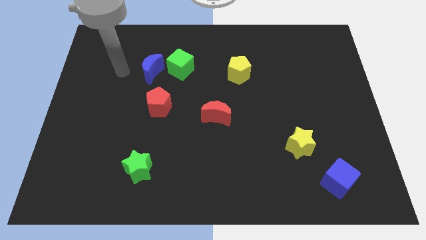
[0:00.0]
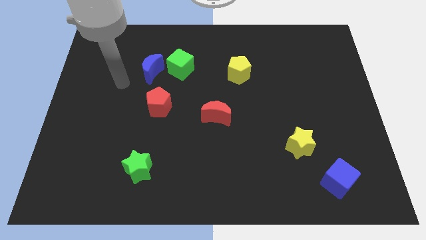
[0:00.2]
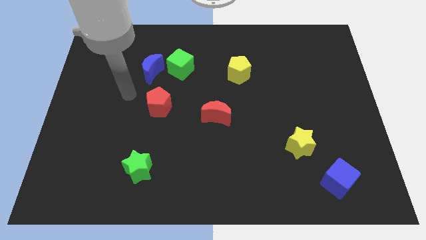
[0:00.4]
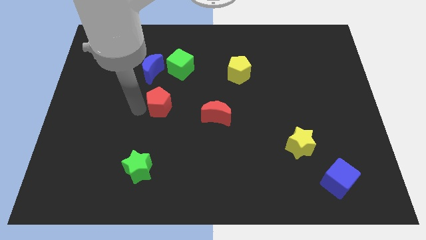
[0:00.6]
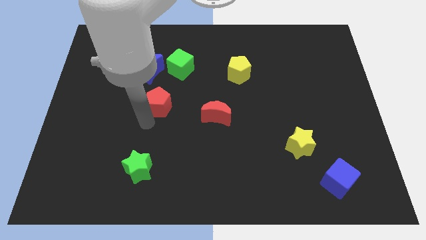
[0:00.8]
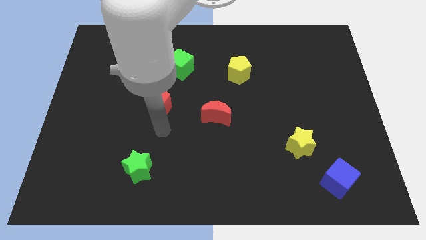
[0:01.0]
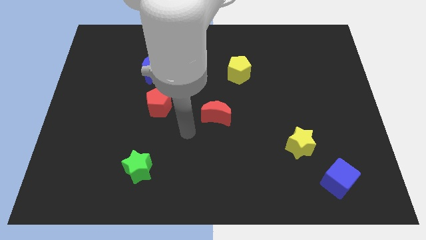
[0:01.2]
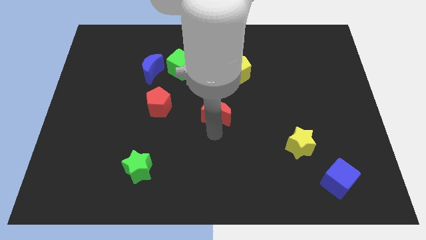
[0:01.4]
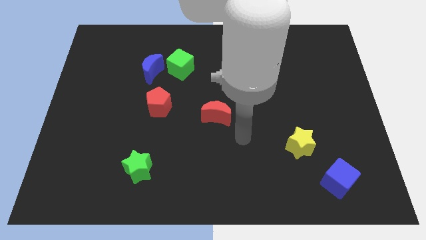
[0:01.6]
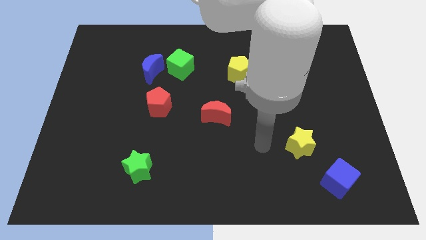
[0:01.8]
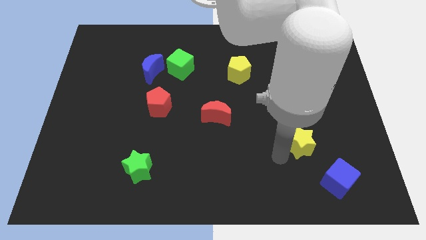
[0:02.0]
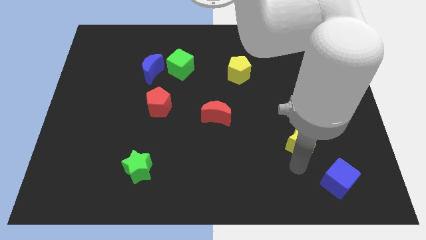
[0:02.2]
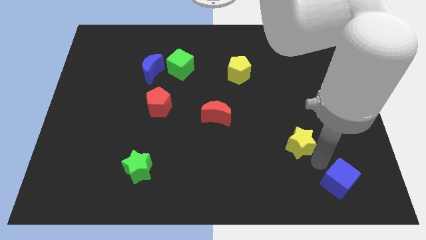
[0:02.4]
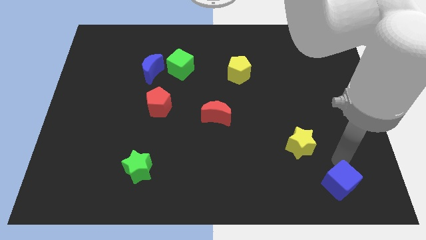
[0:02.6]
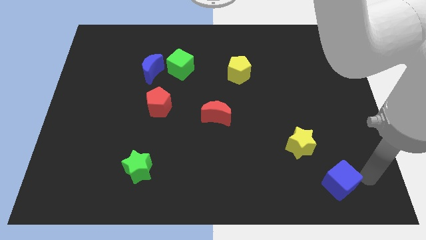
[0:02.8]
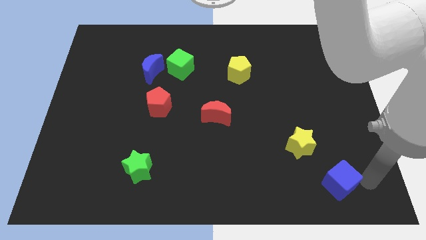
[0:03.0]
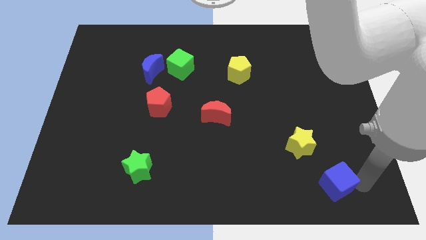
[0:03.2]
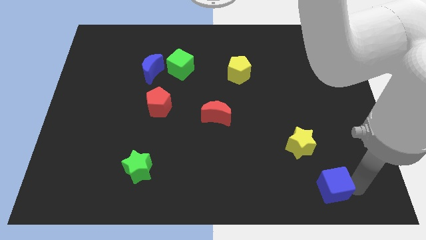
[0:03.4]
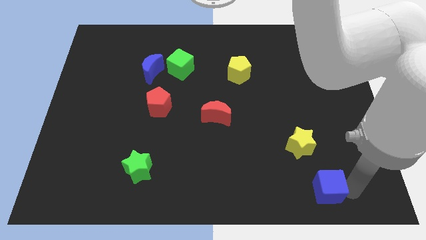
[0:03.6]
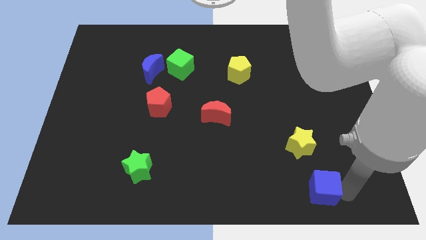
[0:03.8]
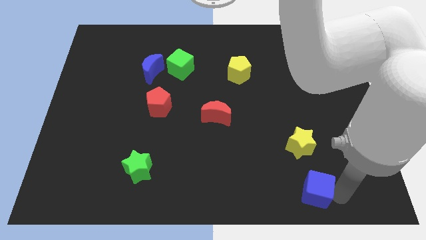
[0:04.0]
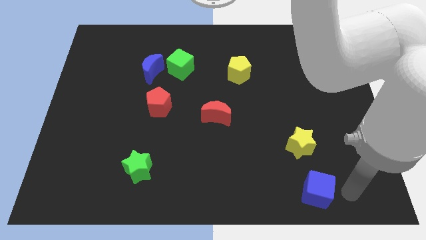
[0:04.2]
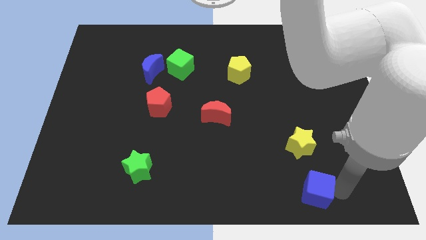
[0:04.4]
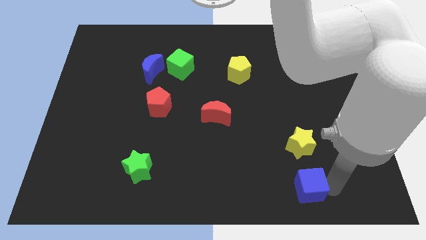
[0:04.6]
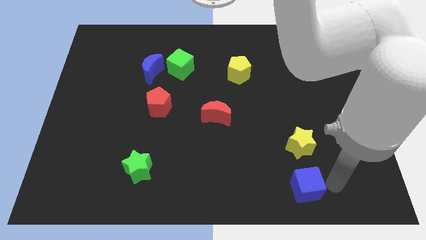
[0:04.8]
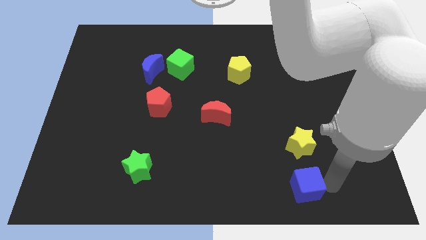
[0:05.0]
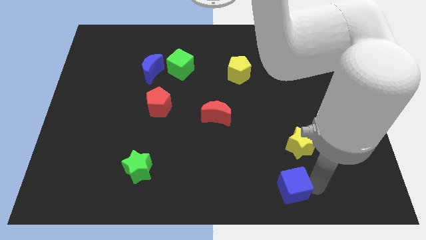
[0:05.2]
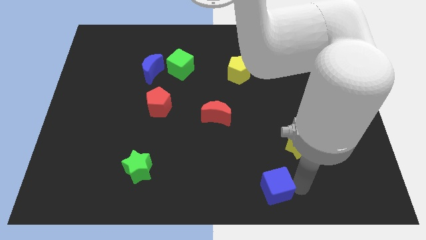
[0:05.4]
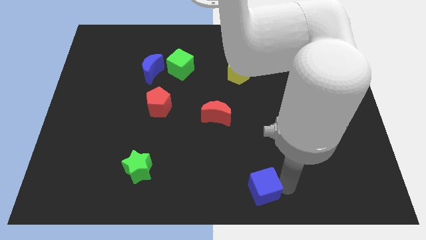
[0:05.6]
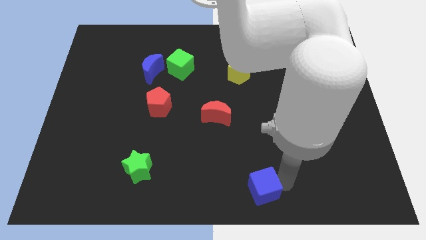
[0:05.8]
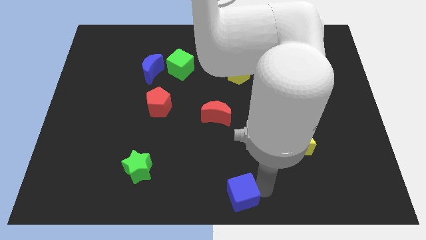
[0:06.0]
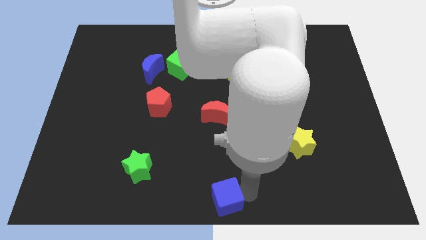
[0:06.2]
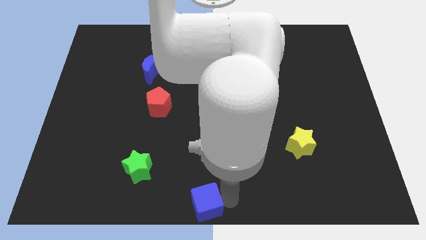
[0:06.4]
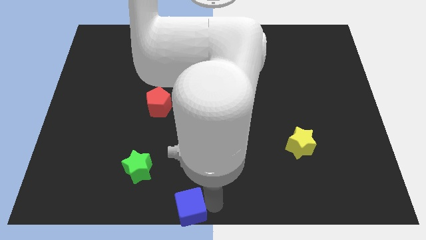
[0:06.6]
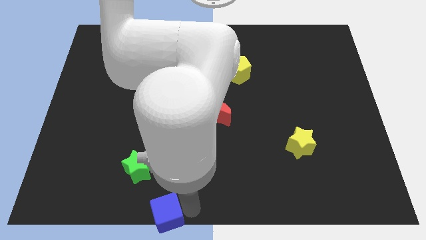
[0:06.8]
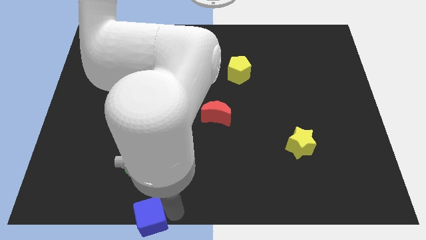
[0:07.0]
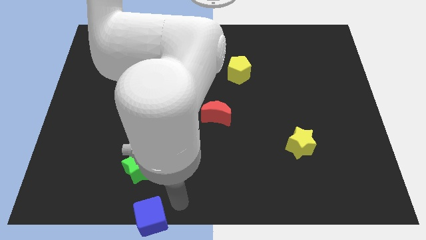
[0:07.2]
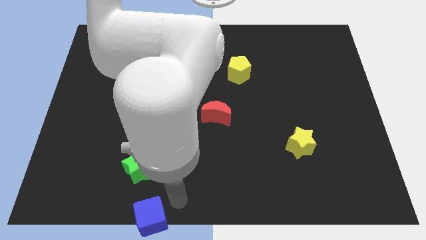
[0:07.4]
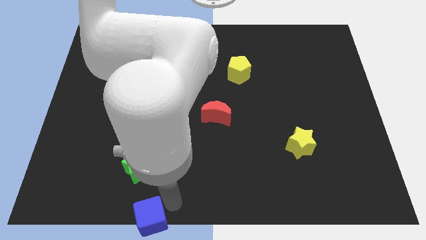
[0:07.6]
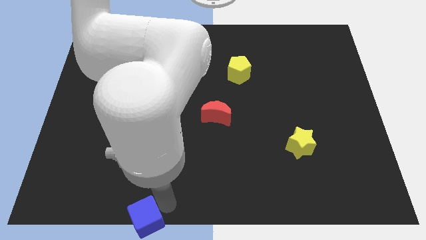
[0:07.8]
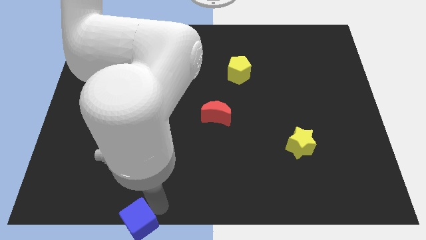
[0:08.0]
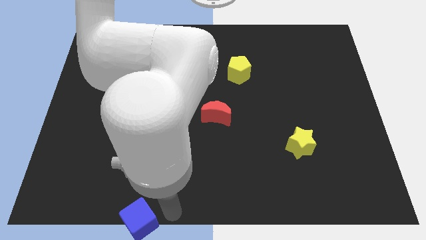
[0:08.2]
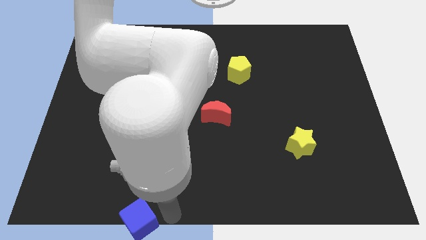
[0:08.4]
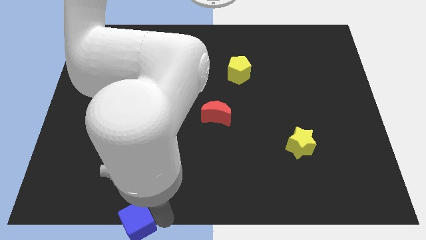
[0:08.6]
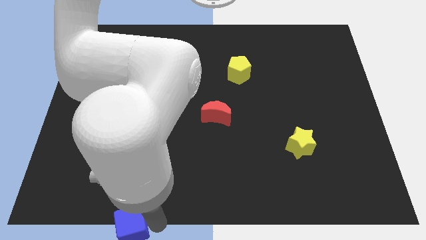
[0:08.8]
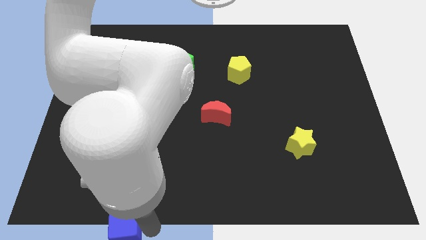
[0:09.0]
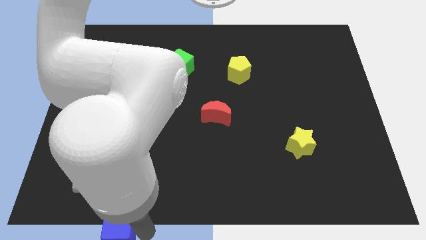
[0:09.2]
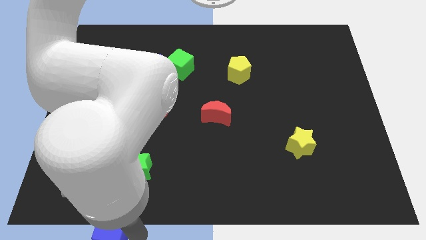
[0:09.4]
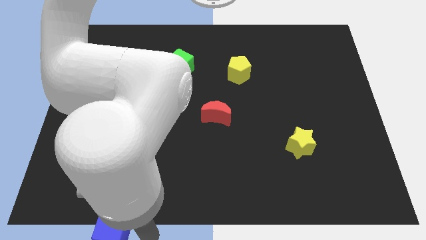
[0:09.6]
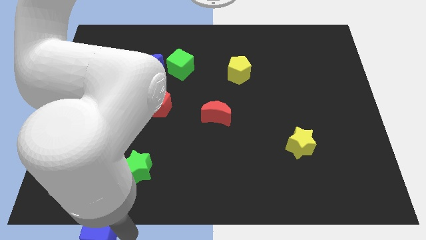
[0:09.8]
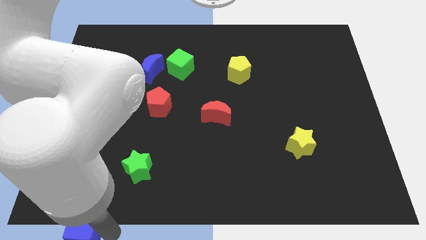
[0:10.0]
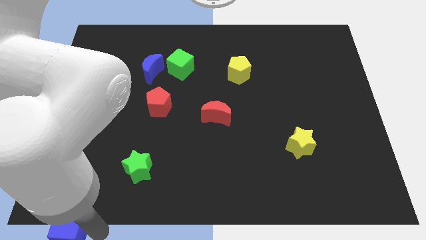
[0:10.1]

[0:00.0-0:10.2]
move the blue cube to the lower left corner

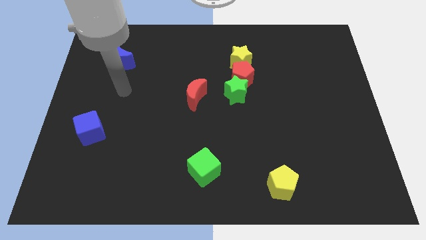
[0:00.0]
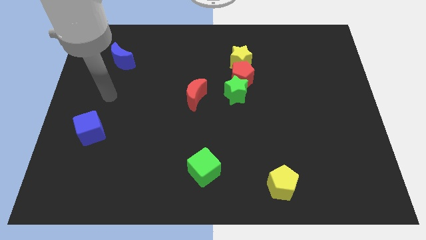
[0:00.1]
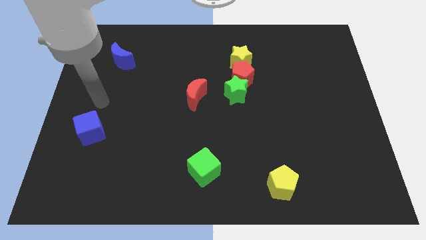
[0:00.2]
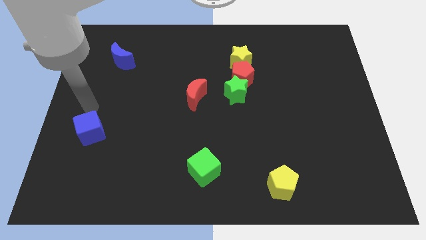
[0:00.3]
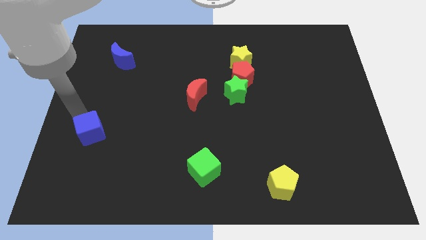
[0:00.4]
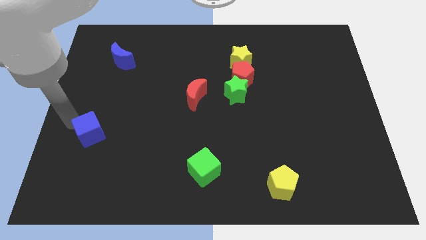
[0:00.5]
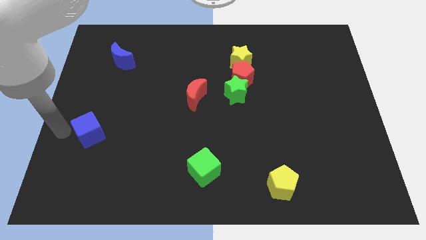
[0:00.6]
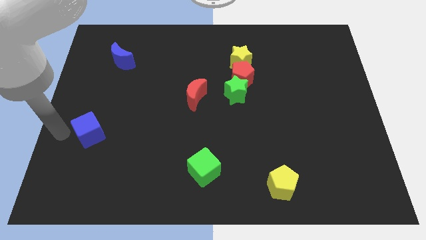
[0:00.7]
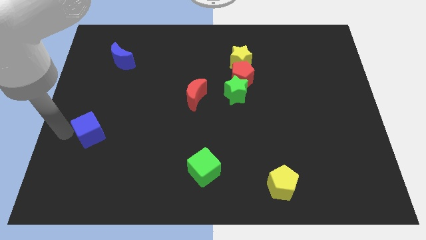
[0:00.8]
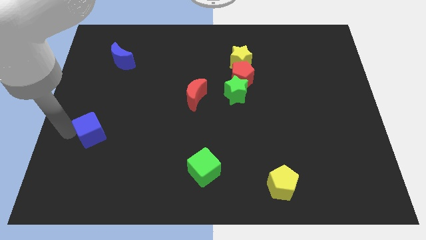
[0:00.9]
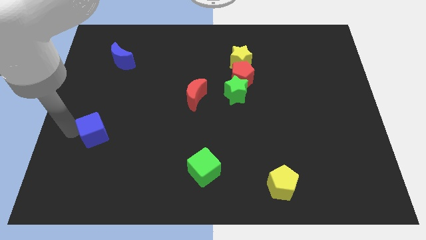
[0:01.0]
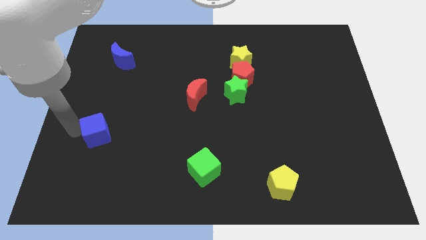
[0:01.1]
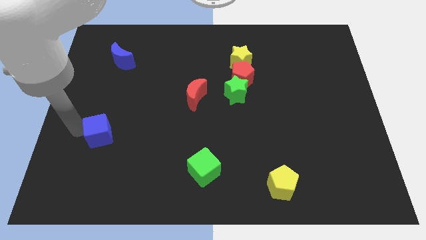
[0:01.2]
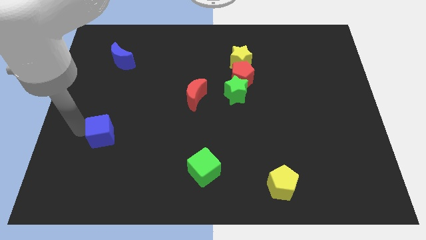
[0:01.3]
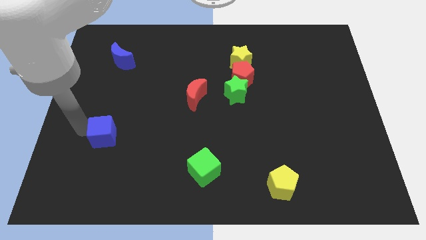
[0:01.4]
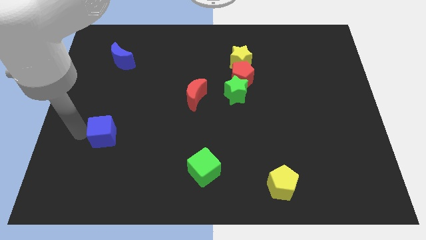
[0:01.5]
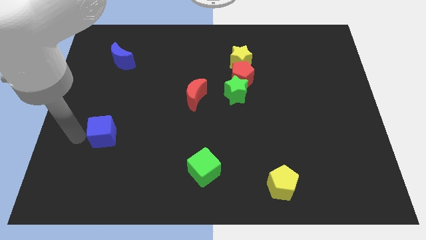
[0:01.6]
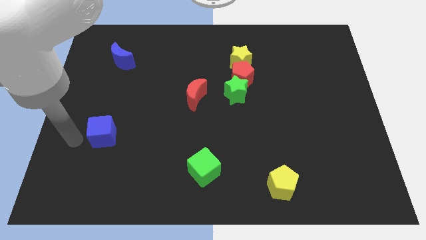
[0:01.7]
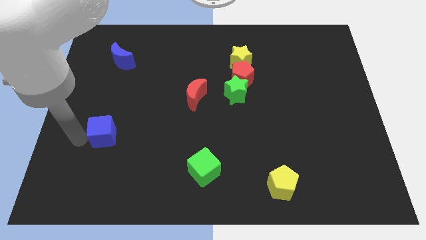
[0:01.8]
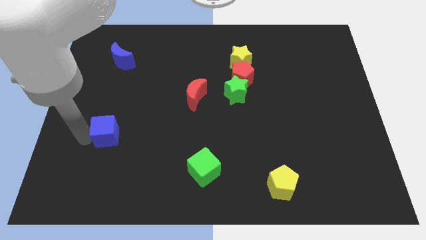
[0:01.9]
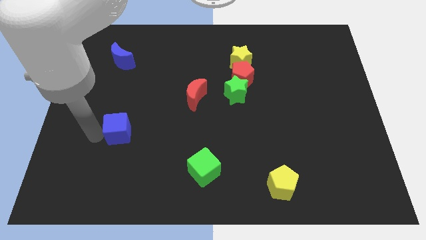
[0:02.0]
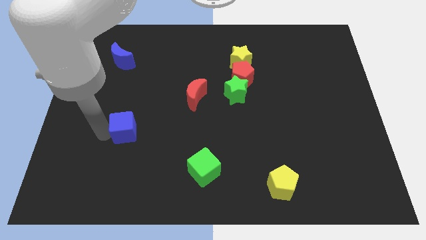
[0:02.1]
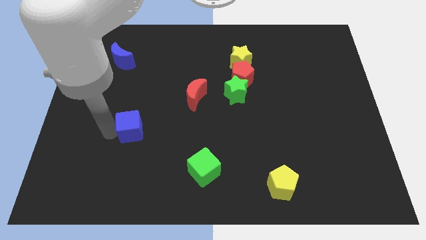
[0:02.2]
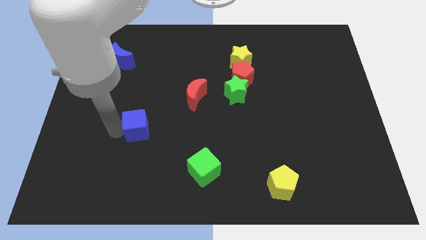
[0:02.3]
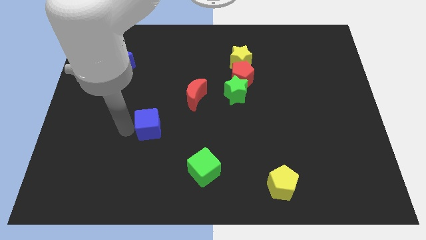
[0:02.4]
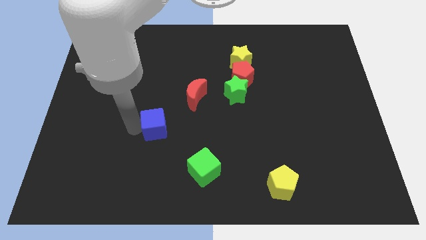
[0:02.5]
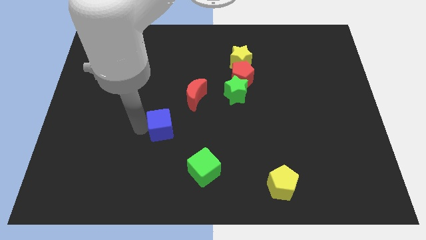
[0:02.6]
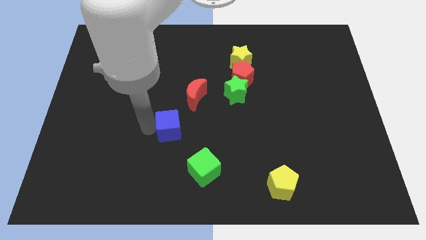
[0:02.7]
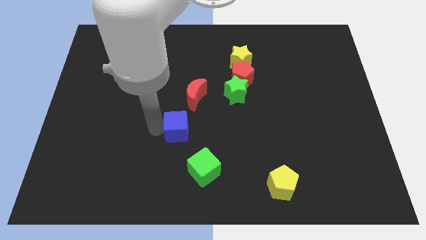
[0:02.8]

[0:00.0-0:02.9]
slide the blue cube to the middle of the board

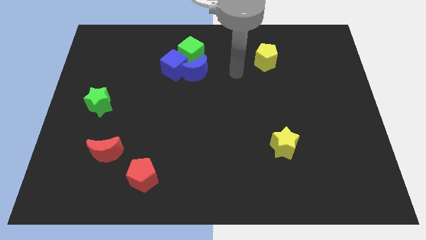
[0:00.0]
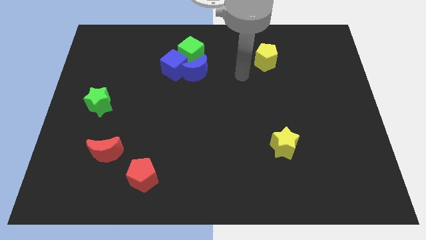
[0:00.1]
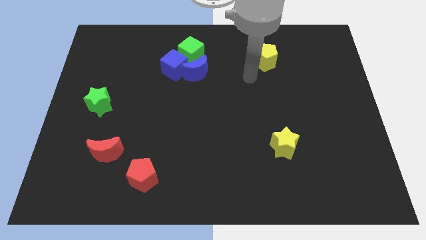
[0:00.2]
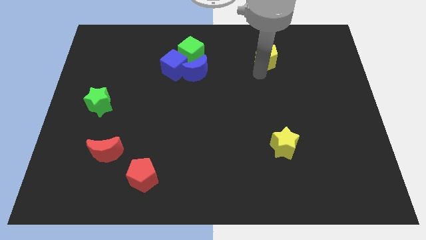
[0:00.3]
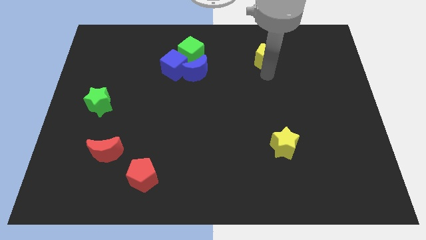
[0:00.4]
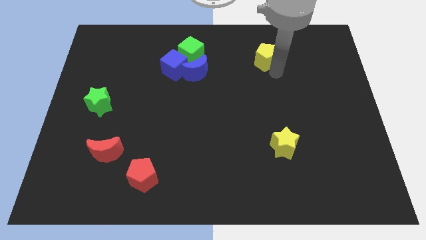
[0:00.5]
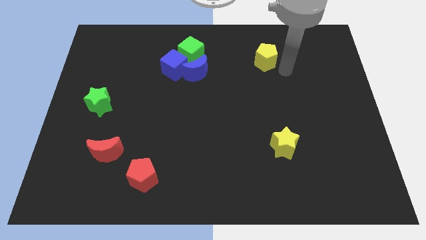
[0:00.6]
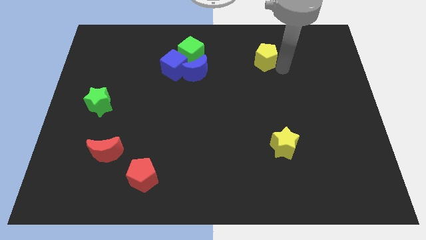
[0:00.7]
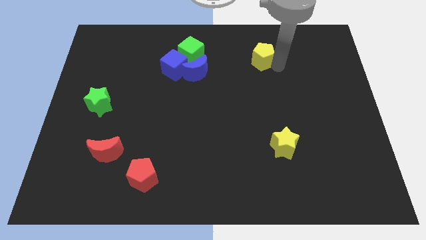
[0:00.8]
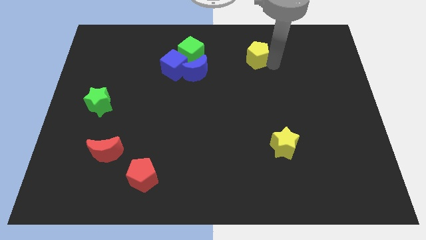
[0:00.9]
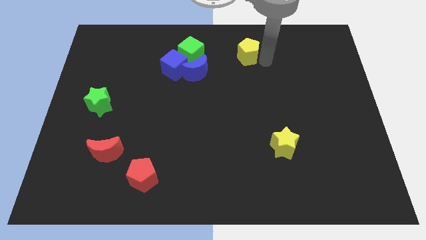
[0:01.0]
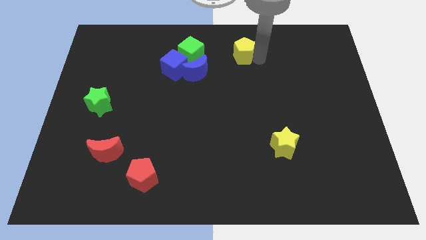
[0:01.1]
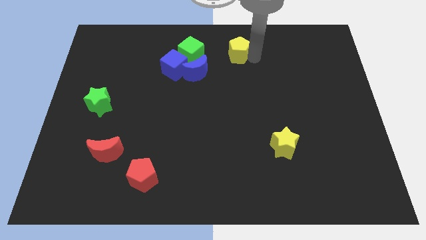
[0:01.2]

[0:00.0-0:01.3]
put the yellow pentagon to the top
